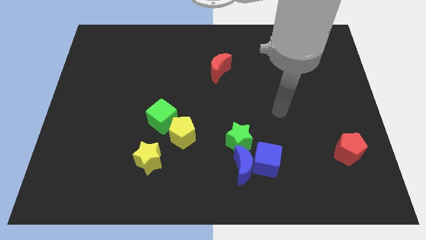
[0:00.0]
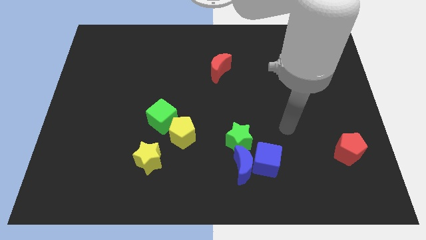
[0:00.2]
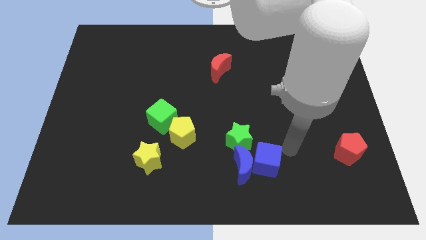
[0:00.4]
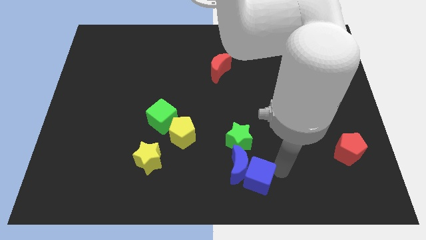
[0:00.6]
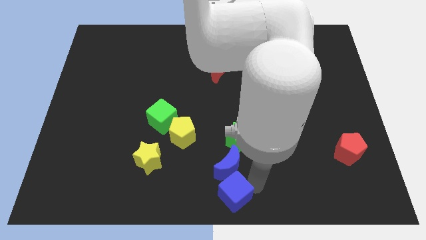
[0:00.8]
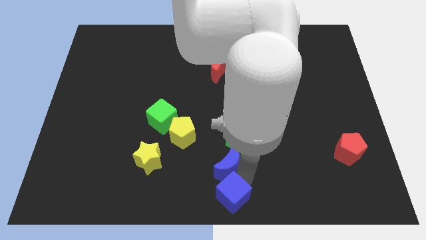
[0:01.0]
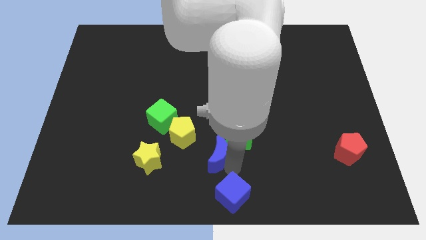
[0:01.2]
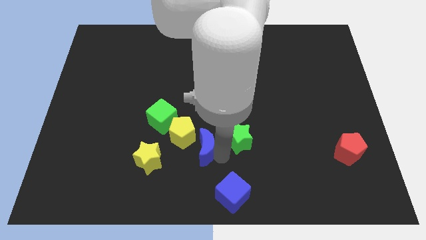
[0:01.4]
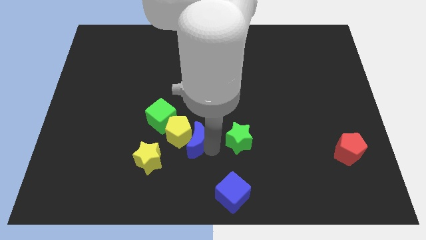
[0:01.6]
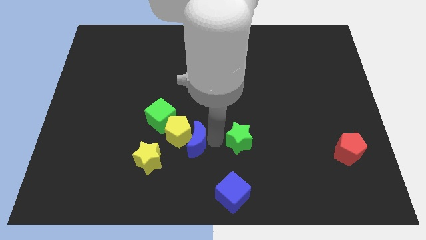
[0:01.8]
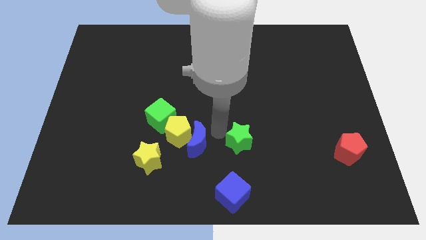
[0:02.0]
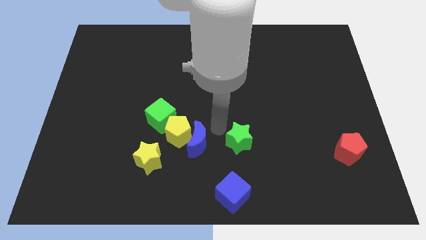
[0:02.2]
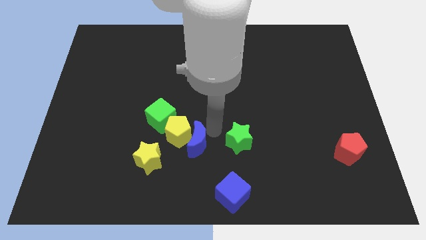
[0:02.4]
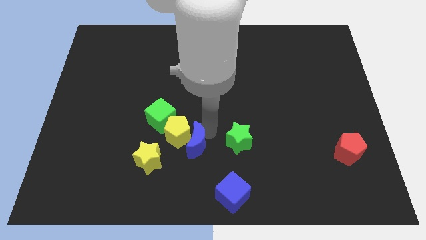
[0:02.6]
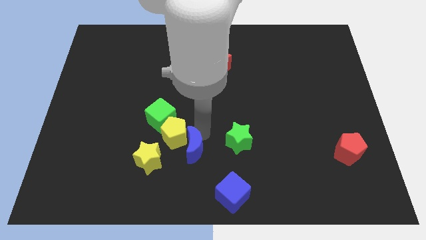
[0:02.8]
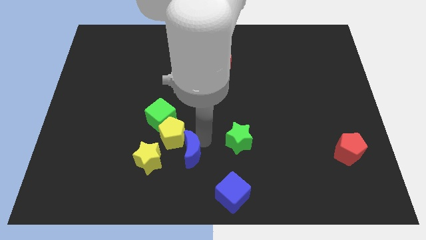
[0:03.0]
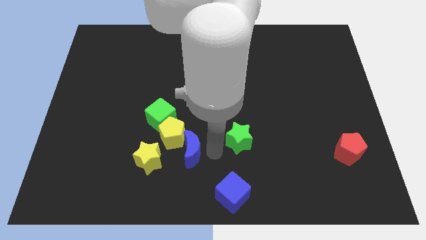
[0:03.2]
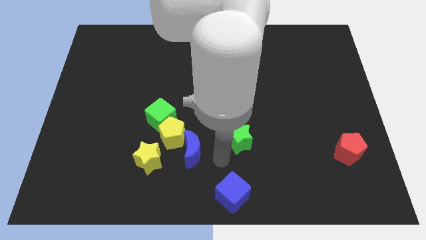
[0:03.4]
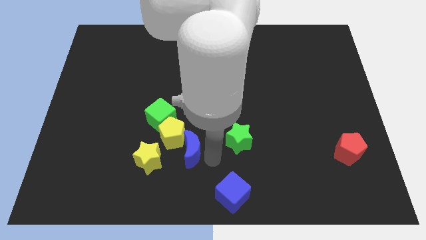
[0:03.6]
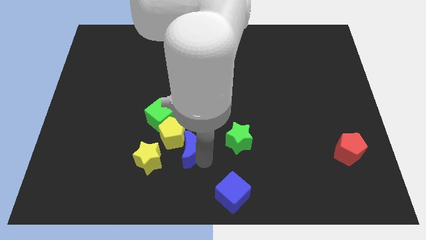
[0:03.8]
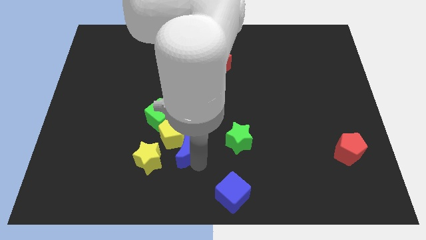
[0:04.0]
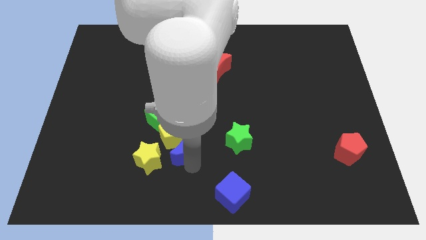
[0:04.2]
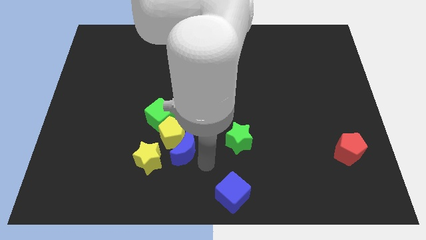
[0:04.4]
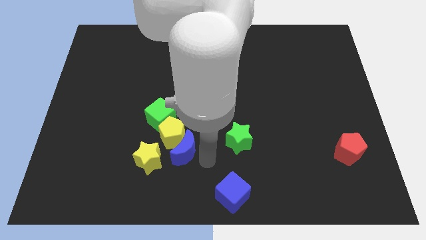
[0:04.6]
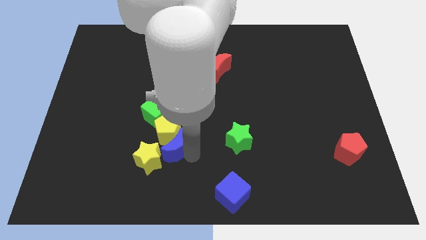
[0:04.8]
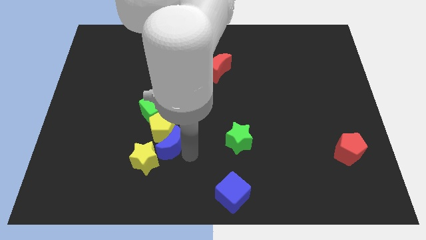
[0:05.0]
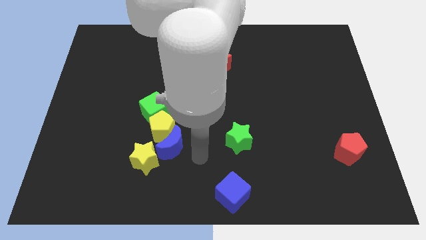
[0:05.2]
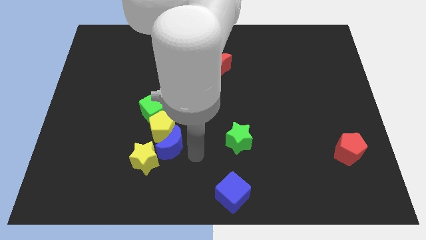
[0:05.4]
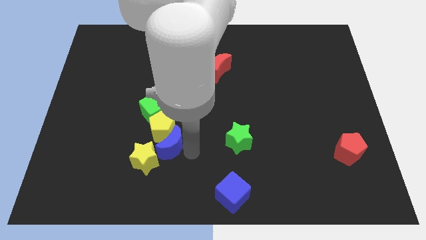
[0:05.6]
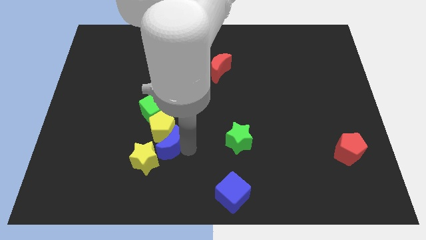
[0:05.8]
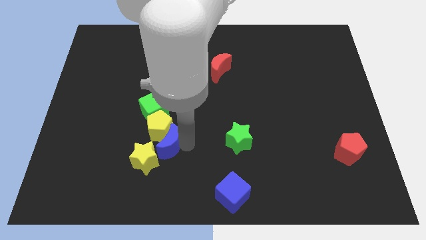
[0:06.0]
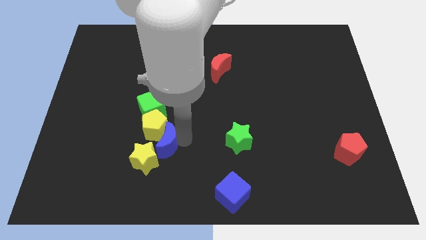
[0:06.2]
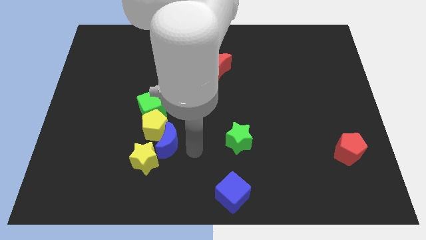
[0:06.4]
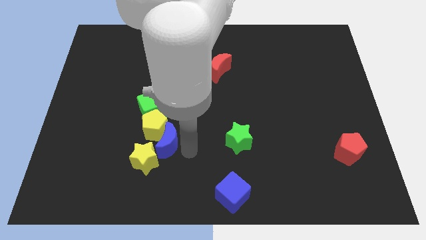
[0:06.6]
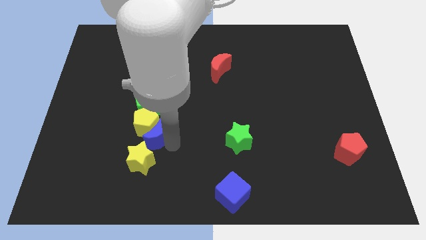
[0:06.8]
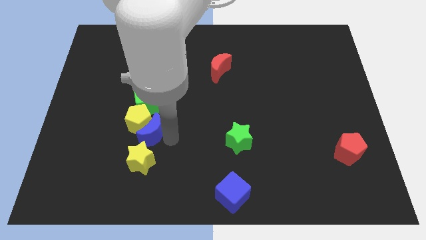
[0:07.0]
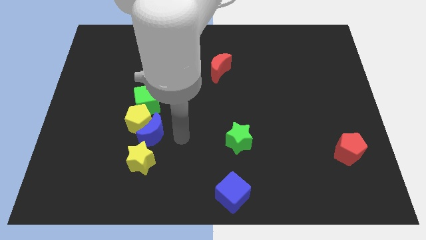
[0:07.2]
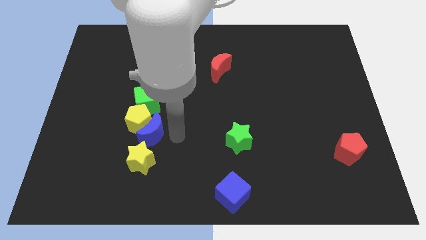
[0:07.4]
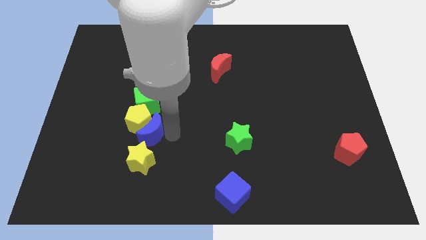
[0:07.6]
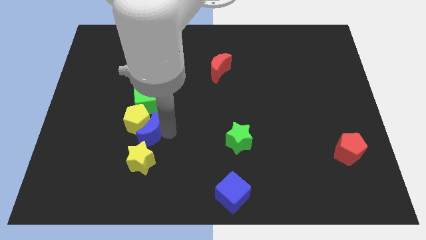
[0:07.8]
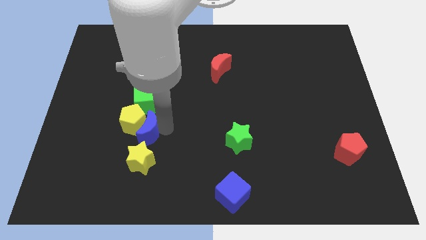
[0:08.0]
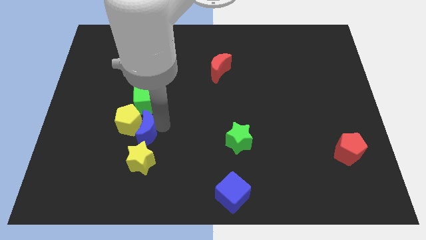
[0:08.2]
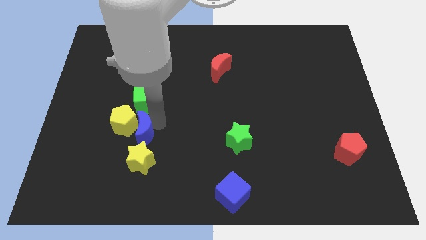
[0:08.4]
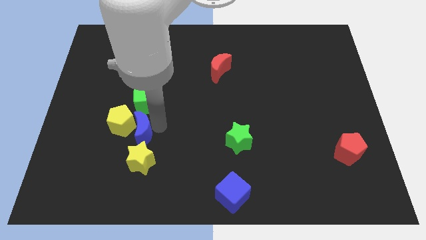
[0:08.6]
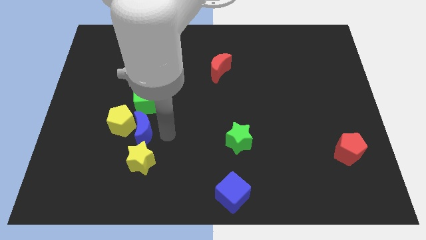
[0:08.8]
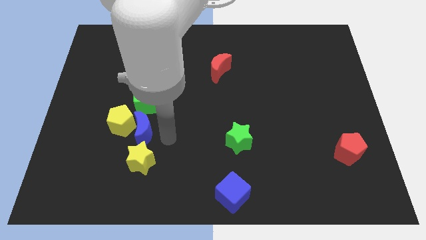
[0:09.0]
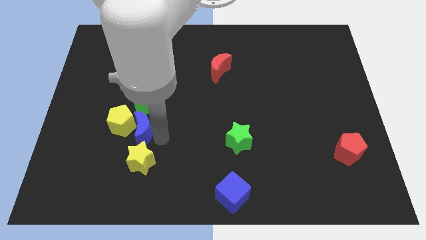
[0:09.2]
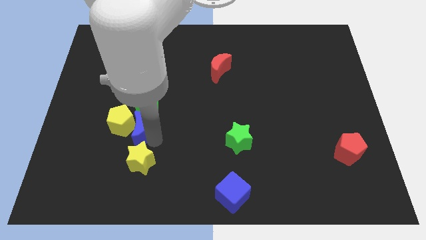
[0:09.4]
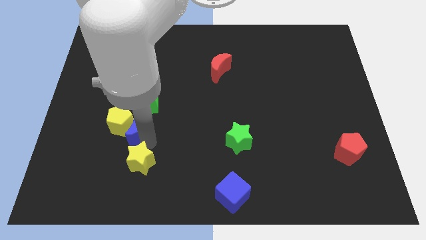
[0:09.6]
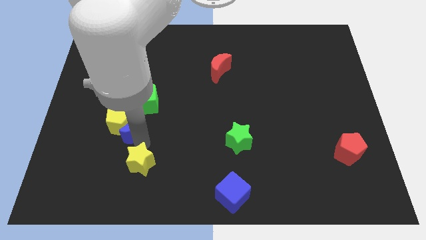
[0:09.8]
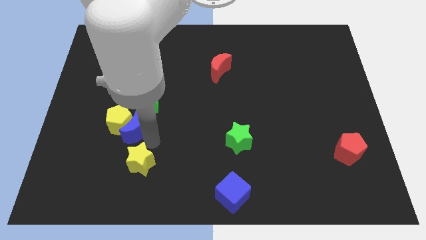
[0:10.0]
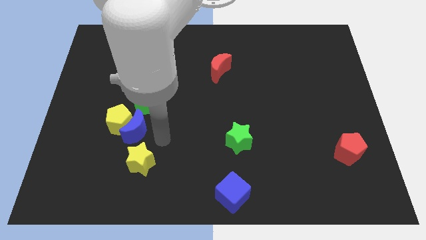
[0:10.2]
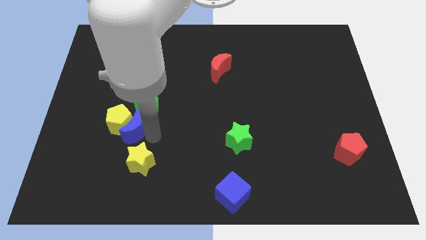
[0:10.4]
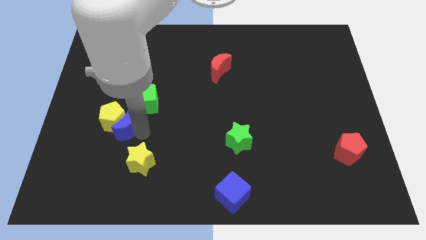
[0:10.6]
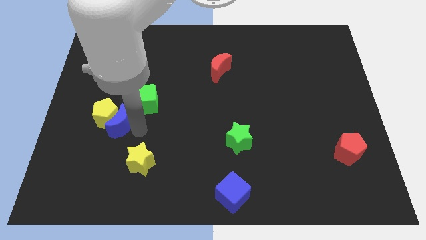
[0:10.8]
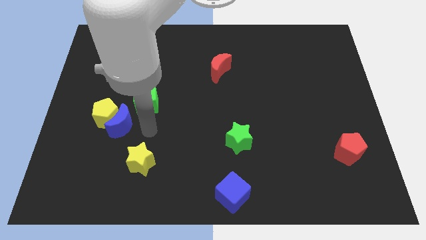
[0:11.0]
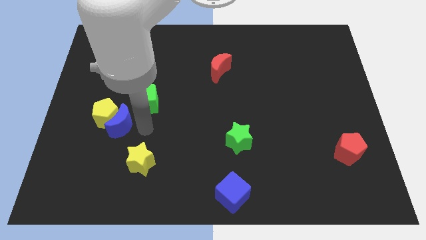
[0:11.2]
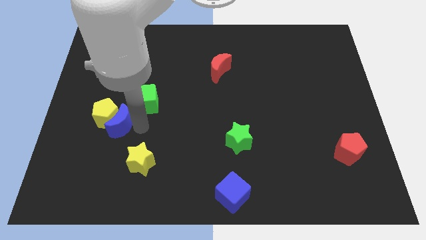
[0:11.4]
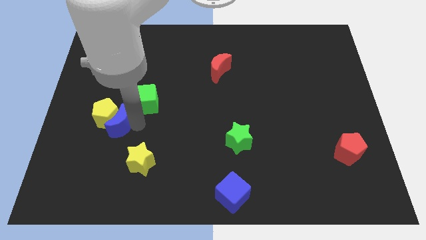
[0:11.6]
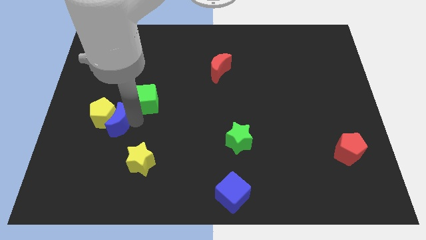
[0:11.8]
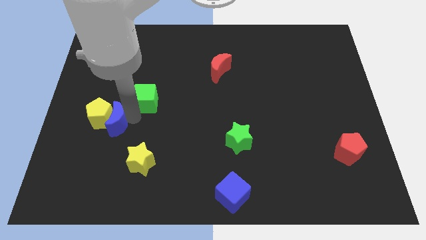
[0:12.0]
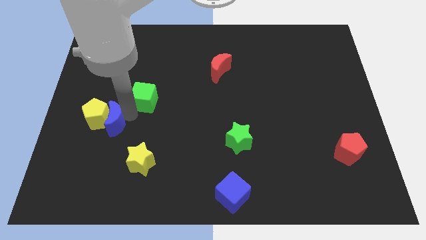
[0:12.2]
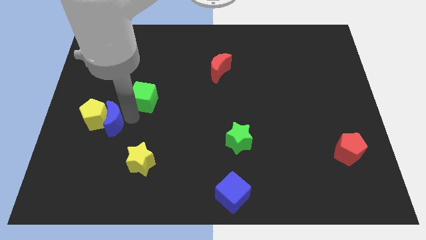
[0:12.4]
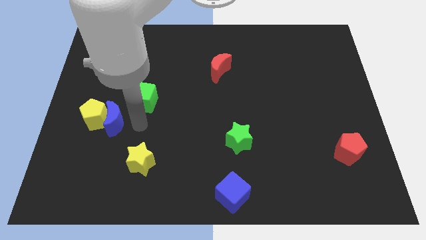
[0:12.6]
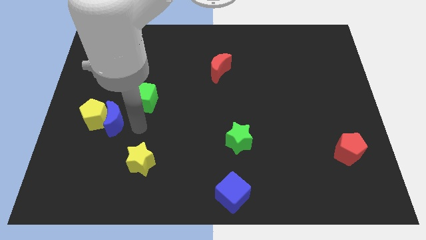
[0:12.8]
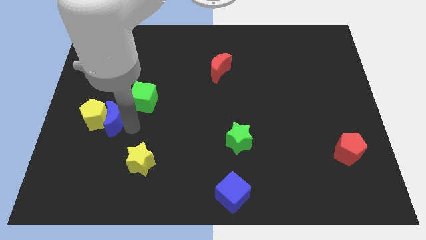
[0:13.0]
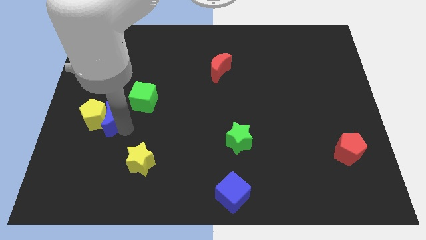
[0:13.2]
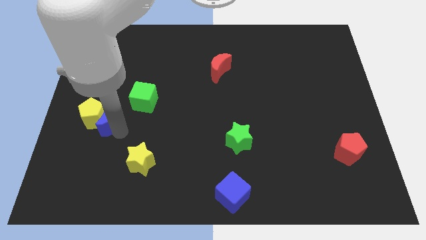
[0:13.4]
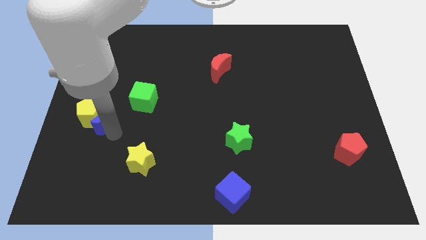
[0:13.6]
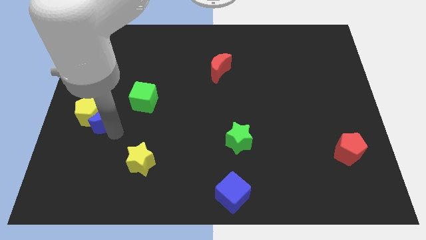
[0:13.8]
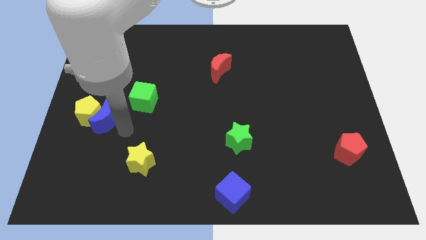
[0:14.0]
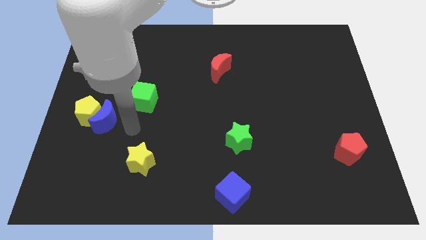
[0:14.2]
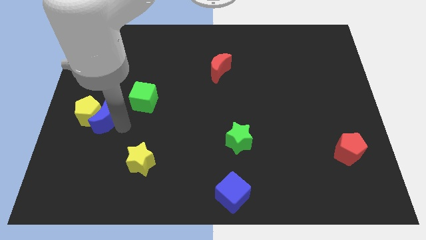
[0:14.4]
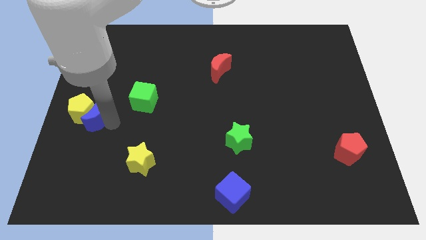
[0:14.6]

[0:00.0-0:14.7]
put the blue moon to the left side
